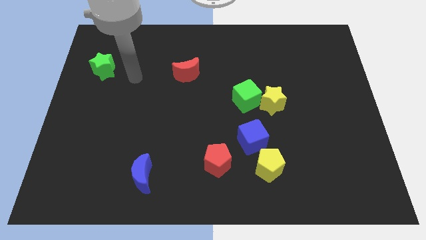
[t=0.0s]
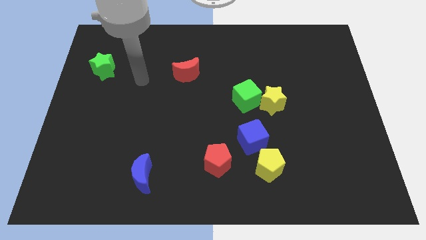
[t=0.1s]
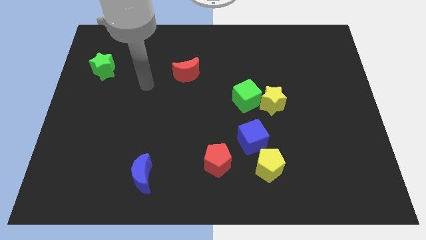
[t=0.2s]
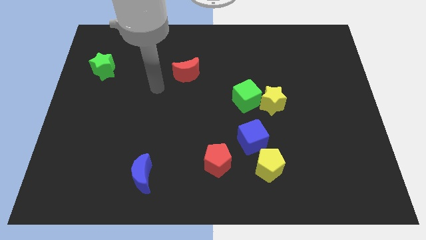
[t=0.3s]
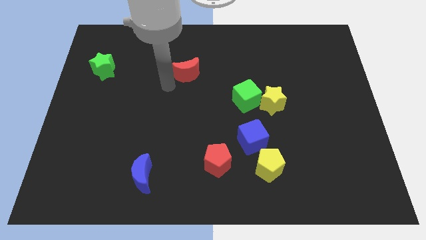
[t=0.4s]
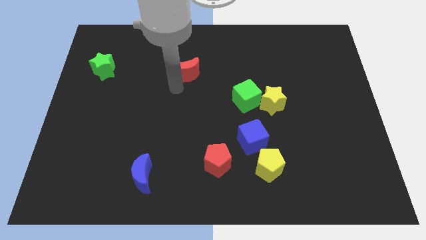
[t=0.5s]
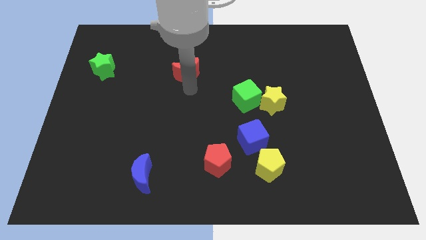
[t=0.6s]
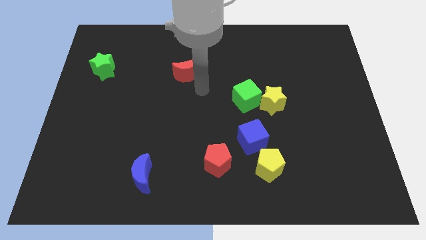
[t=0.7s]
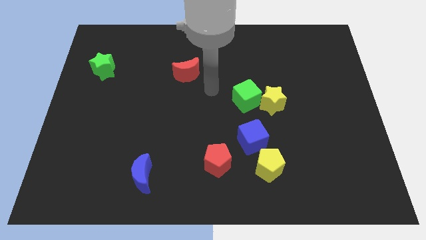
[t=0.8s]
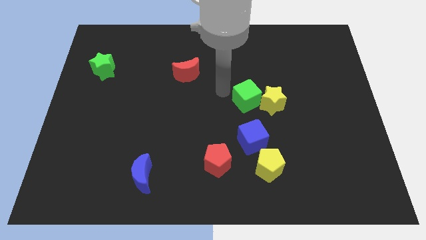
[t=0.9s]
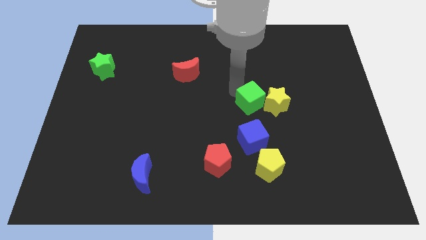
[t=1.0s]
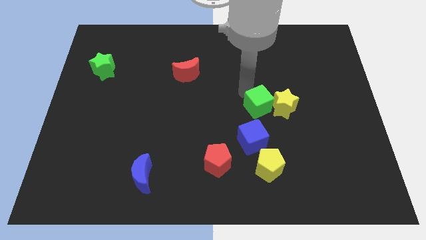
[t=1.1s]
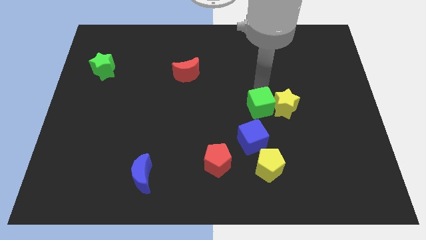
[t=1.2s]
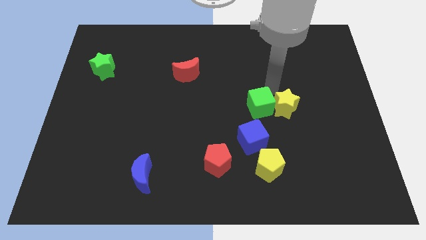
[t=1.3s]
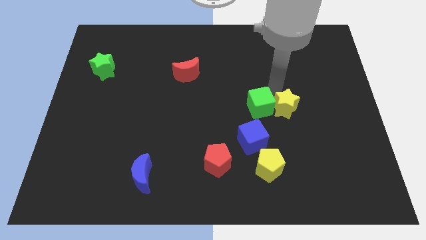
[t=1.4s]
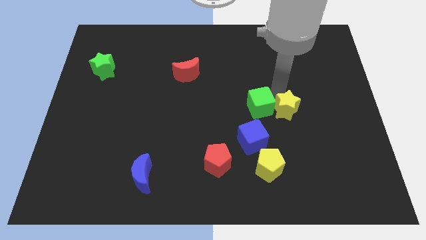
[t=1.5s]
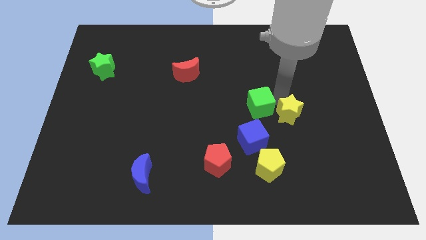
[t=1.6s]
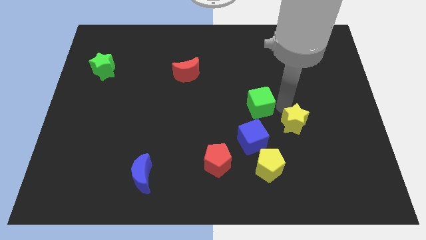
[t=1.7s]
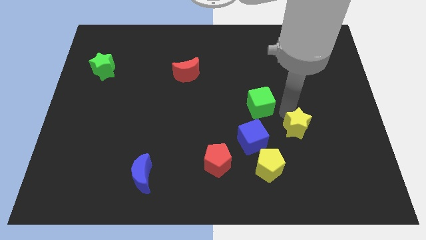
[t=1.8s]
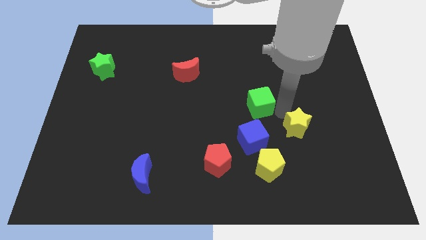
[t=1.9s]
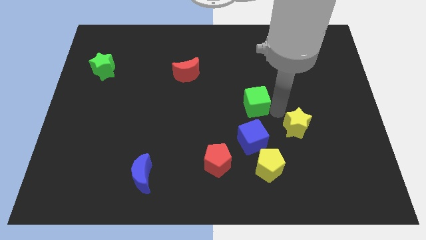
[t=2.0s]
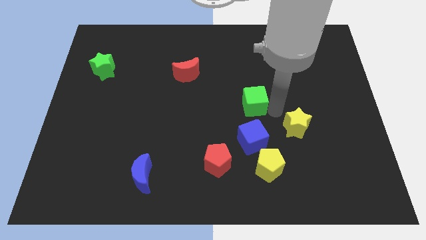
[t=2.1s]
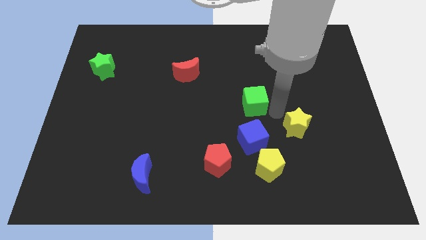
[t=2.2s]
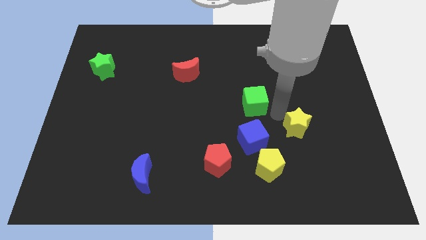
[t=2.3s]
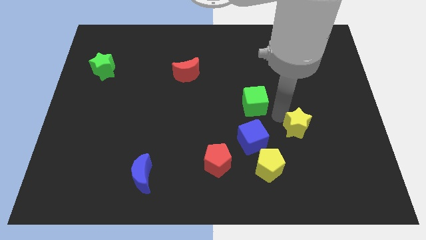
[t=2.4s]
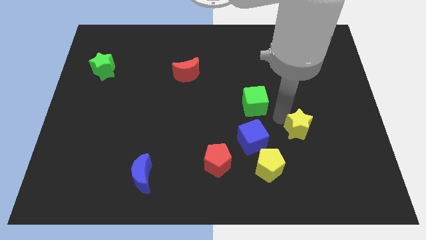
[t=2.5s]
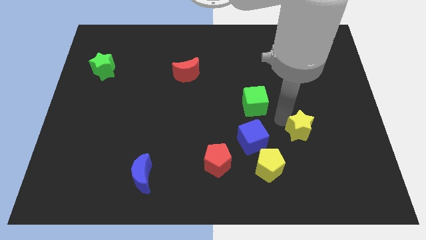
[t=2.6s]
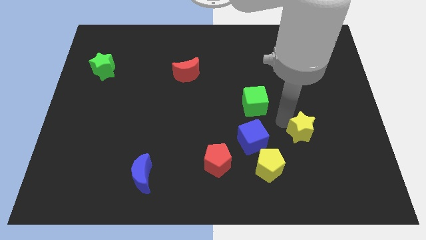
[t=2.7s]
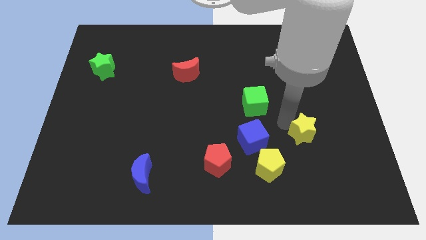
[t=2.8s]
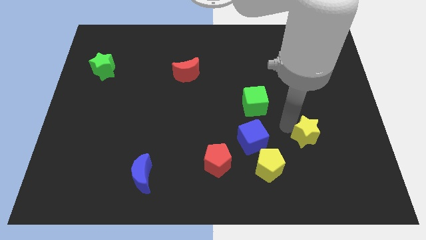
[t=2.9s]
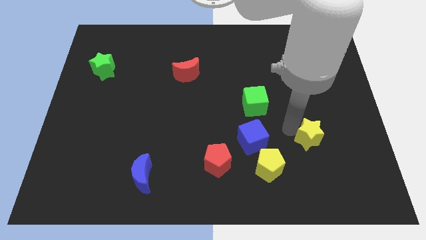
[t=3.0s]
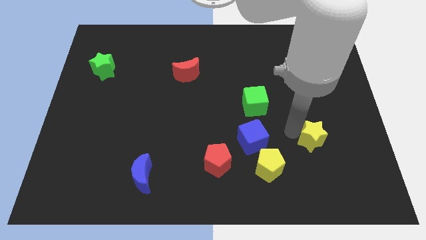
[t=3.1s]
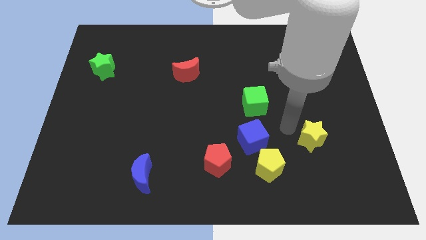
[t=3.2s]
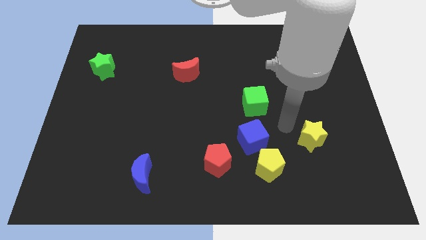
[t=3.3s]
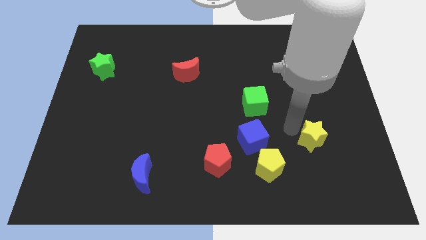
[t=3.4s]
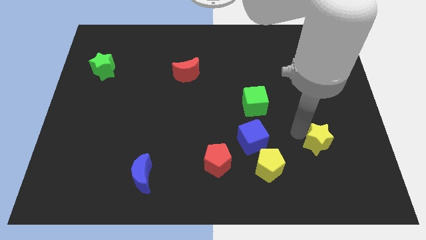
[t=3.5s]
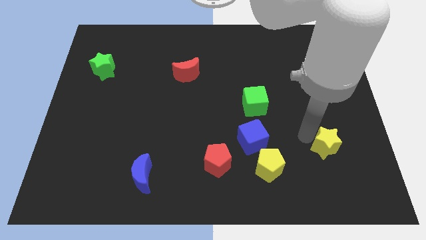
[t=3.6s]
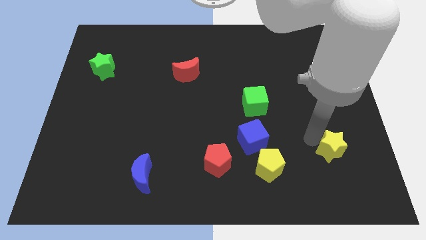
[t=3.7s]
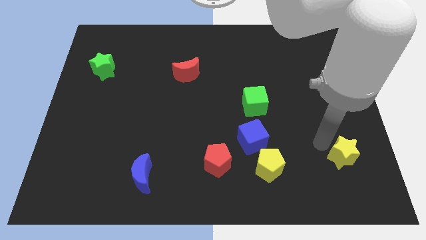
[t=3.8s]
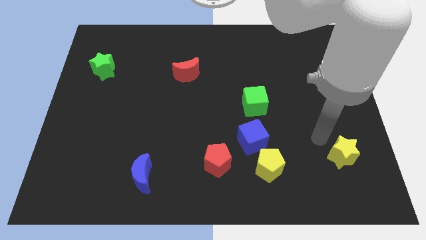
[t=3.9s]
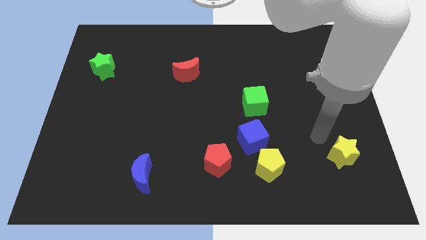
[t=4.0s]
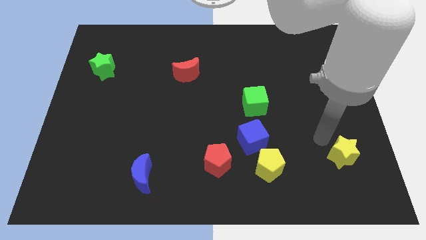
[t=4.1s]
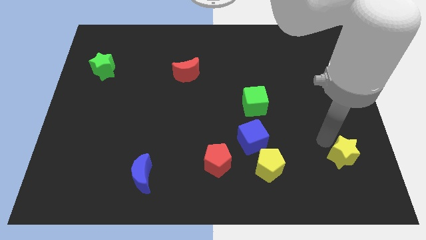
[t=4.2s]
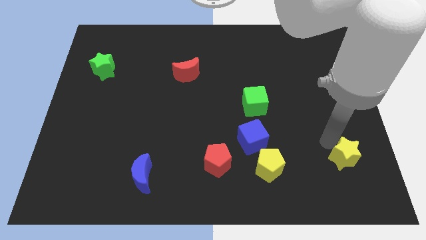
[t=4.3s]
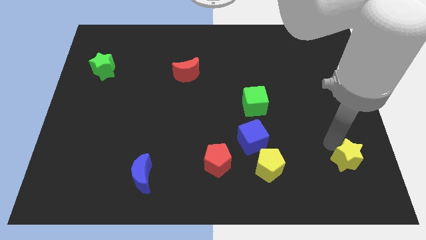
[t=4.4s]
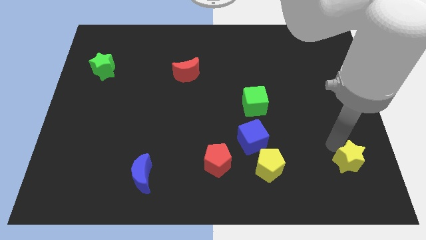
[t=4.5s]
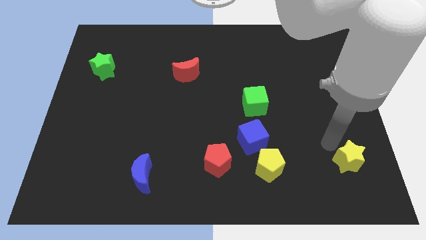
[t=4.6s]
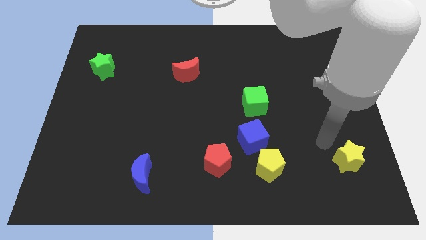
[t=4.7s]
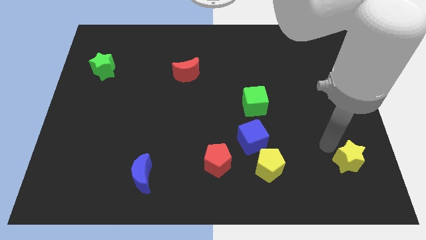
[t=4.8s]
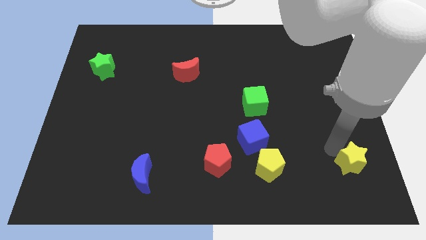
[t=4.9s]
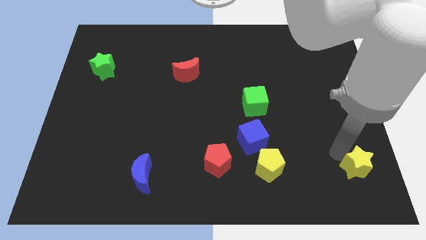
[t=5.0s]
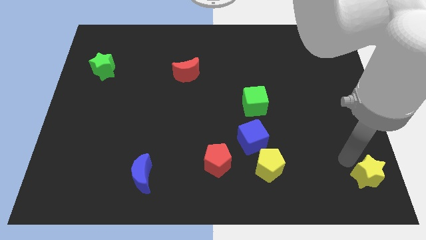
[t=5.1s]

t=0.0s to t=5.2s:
move the yellow star to the bottom right of the board
